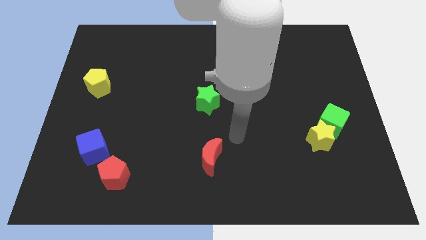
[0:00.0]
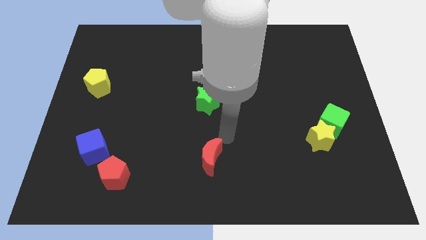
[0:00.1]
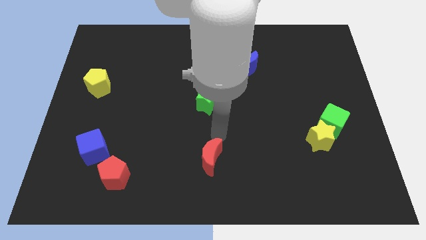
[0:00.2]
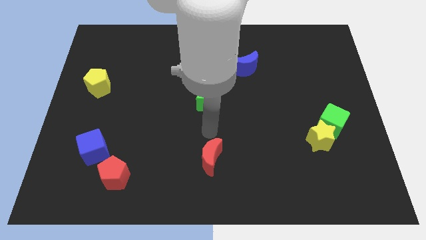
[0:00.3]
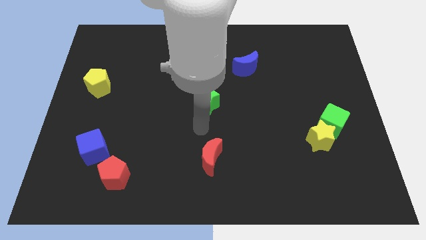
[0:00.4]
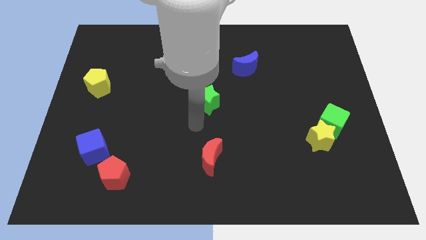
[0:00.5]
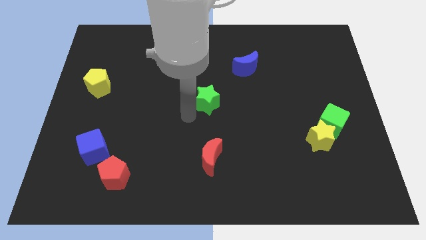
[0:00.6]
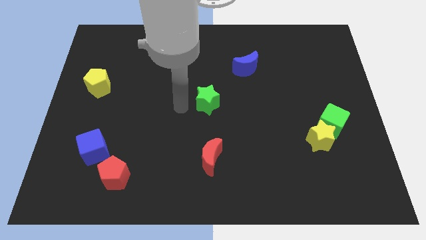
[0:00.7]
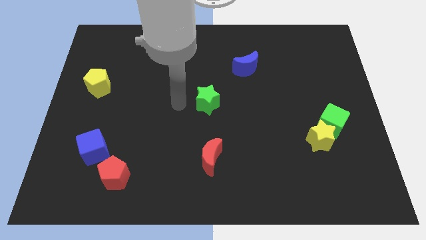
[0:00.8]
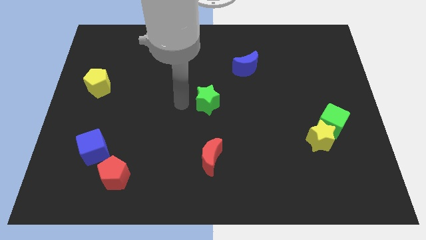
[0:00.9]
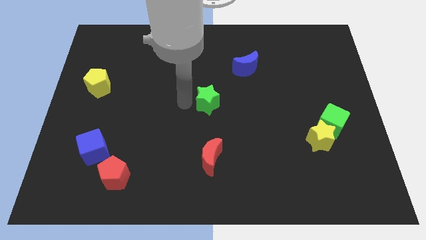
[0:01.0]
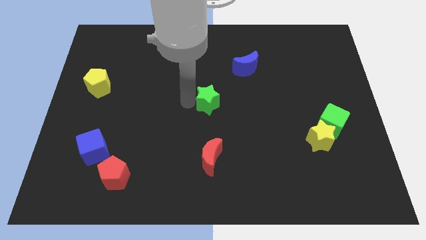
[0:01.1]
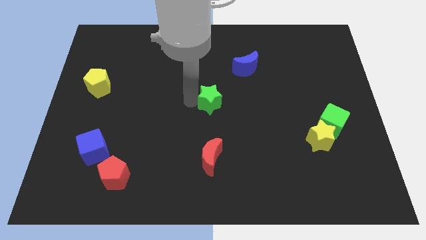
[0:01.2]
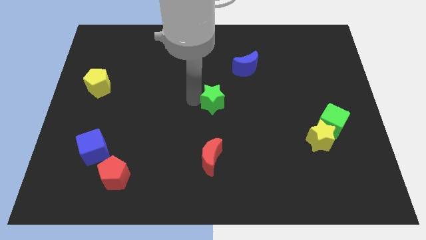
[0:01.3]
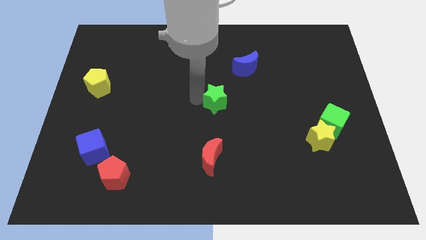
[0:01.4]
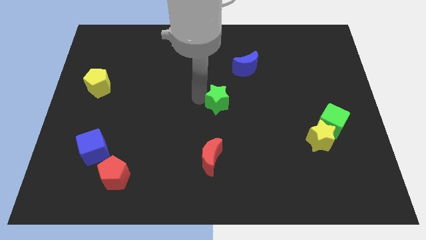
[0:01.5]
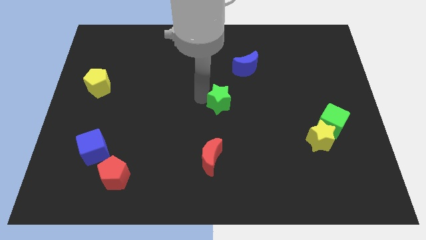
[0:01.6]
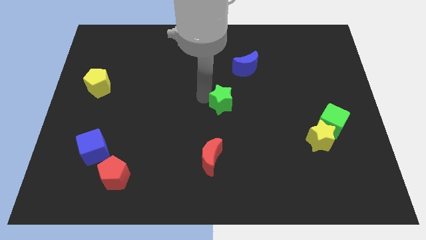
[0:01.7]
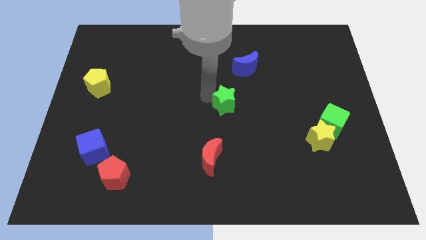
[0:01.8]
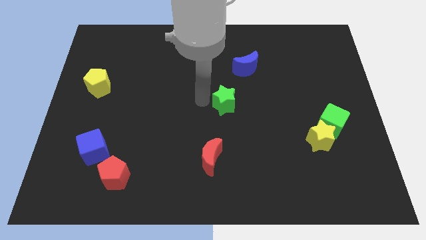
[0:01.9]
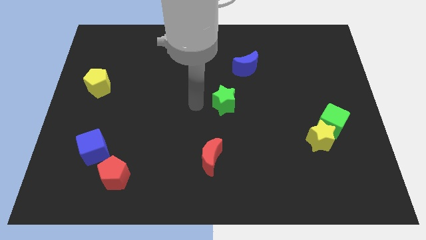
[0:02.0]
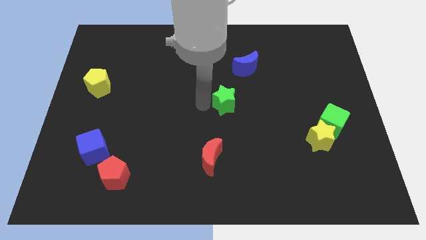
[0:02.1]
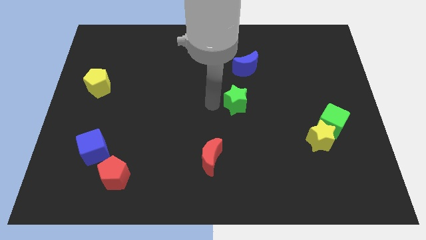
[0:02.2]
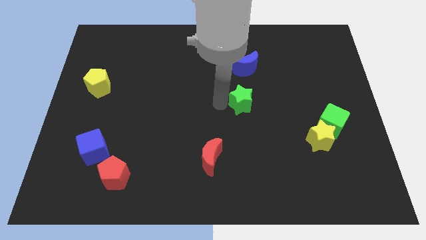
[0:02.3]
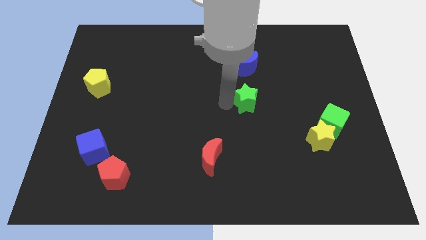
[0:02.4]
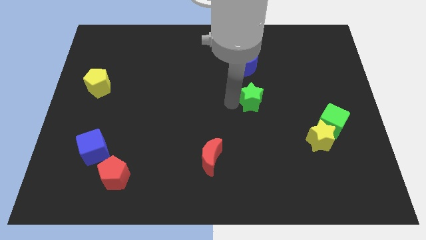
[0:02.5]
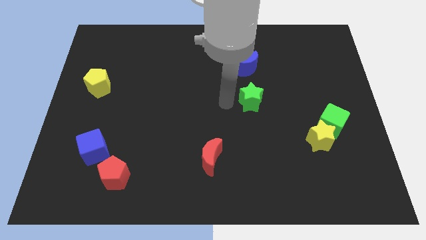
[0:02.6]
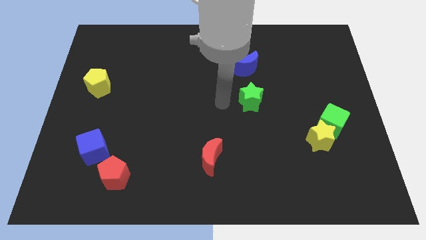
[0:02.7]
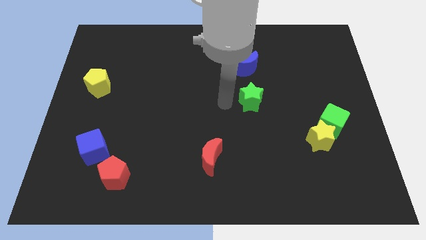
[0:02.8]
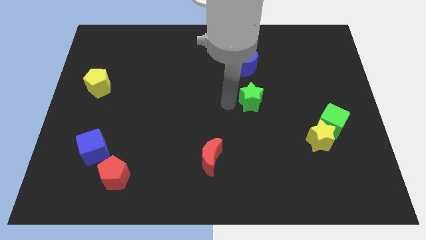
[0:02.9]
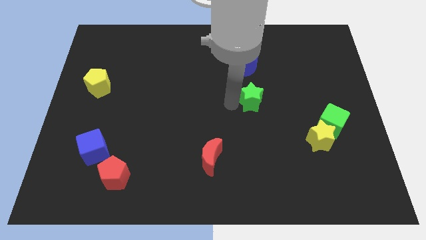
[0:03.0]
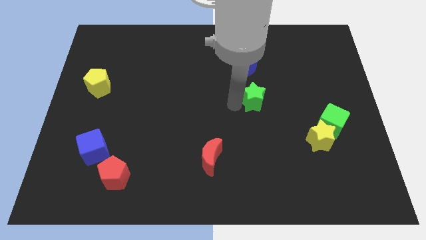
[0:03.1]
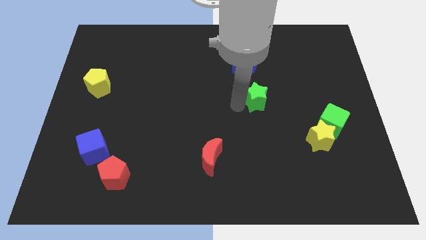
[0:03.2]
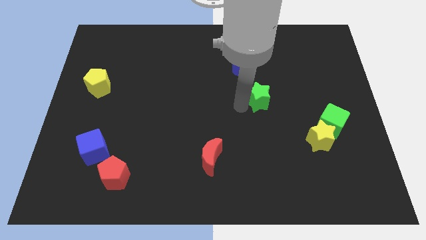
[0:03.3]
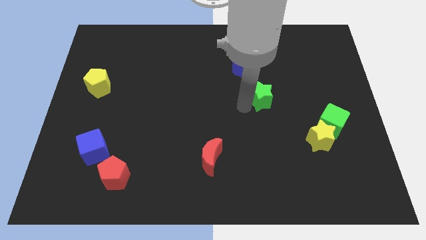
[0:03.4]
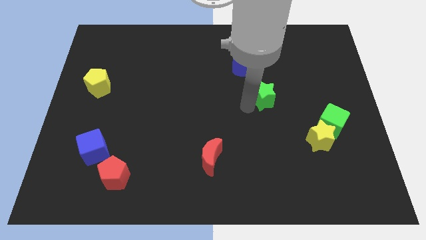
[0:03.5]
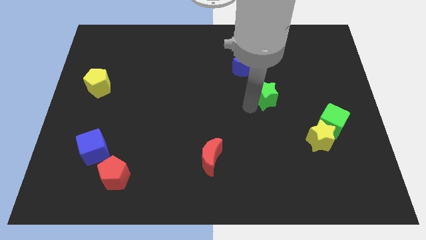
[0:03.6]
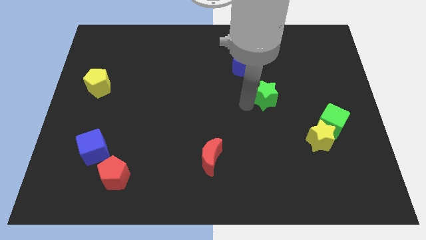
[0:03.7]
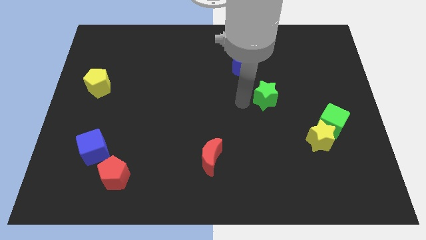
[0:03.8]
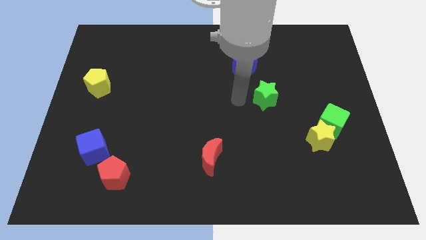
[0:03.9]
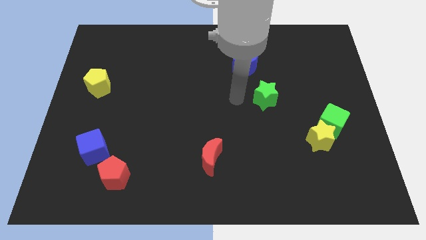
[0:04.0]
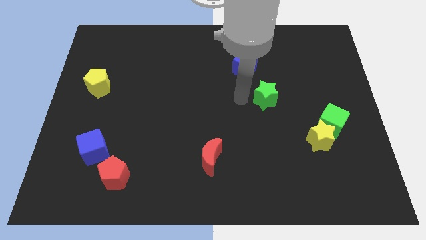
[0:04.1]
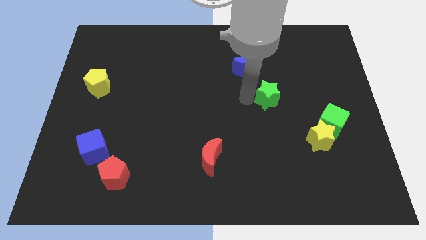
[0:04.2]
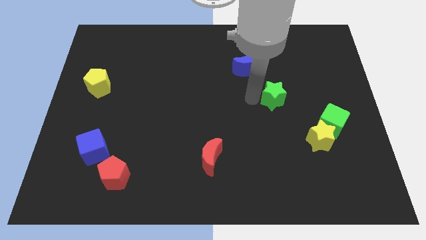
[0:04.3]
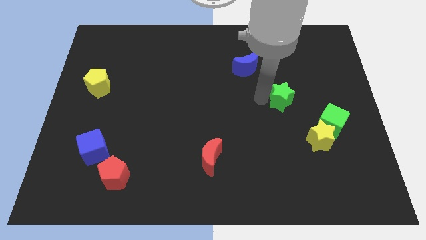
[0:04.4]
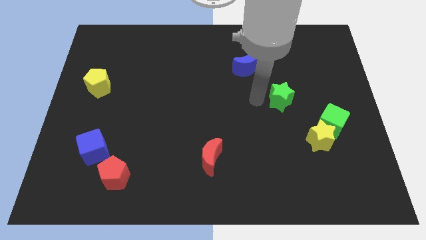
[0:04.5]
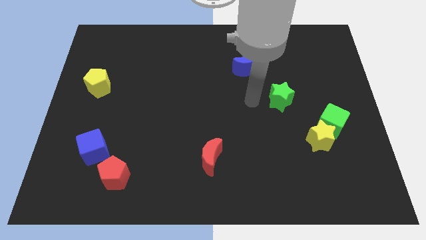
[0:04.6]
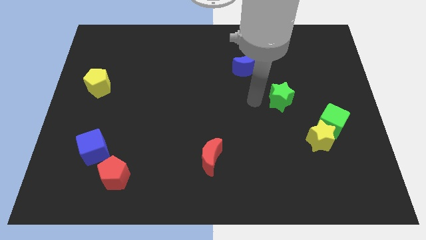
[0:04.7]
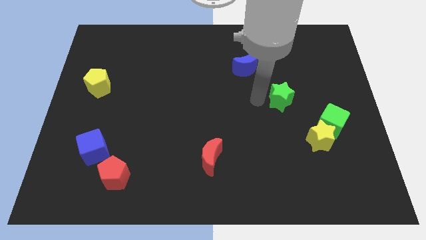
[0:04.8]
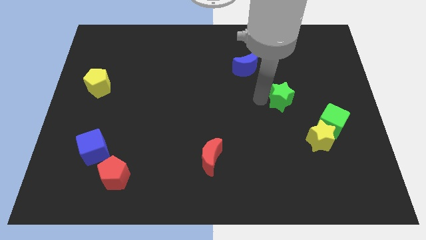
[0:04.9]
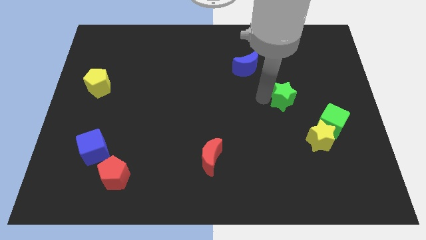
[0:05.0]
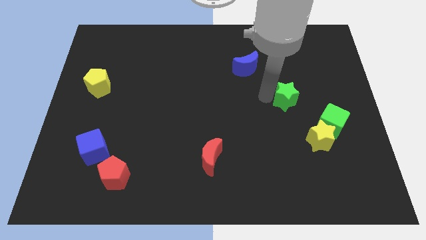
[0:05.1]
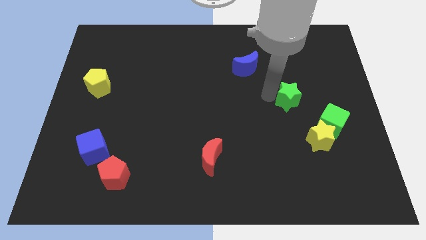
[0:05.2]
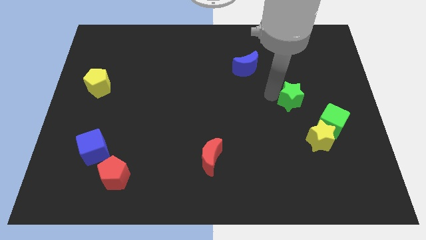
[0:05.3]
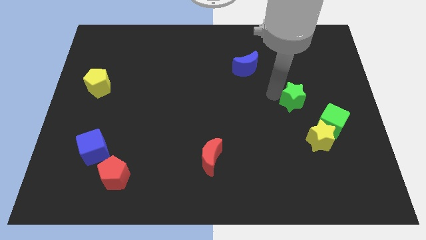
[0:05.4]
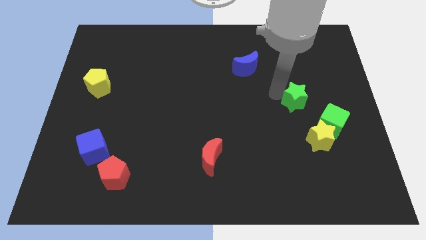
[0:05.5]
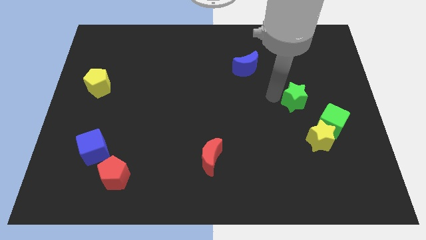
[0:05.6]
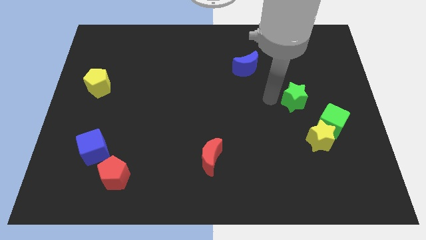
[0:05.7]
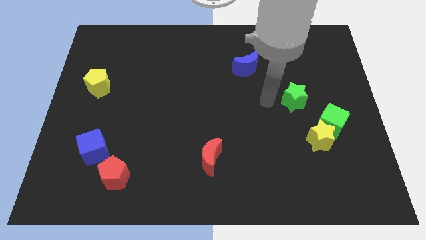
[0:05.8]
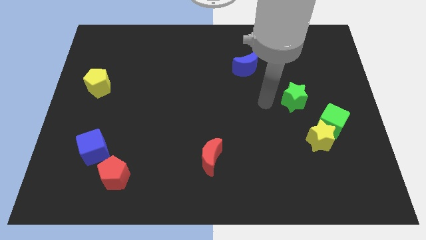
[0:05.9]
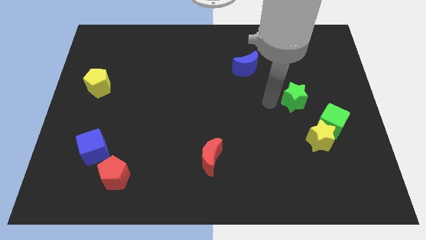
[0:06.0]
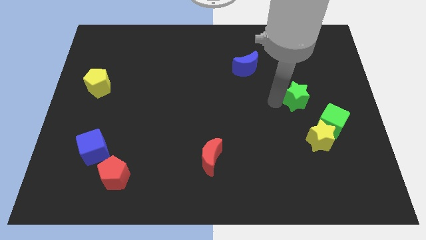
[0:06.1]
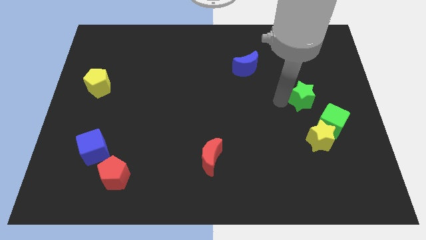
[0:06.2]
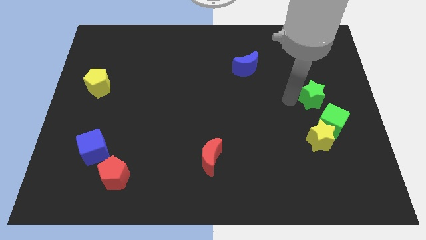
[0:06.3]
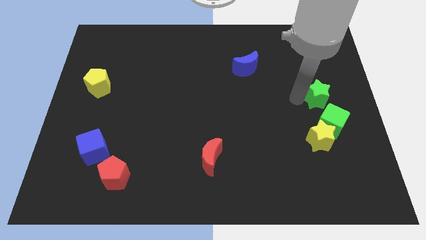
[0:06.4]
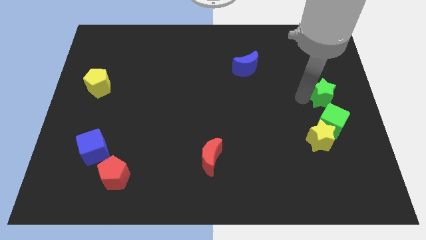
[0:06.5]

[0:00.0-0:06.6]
move the green star to the center right
